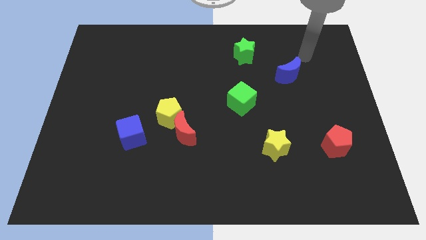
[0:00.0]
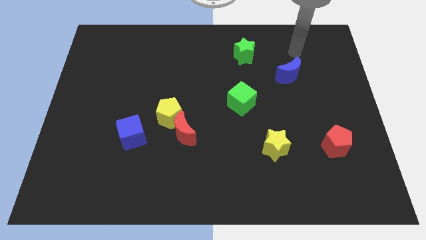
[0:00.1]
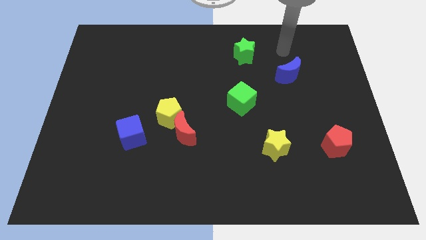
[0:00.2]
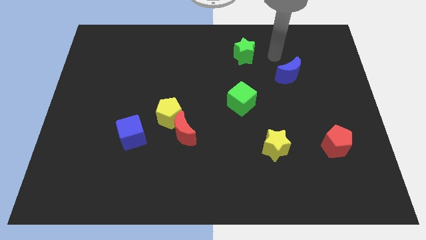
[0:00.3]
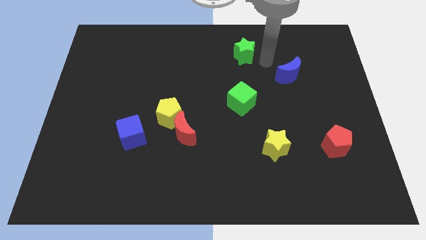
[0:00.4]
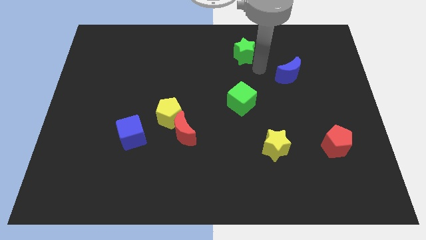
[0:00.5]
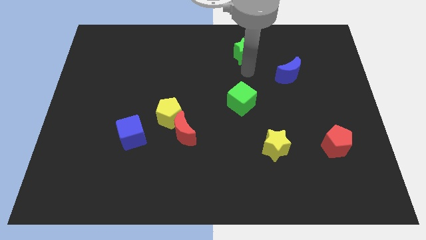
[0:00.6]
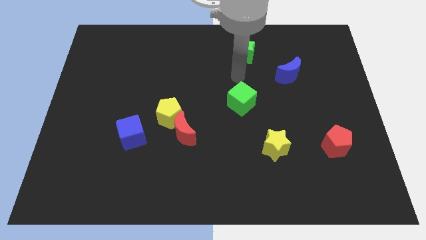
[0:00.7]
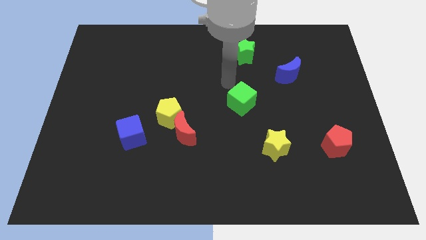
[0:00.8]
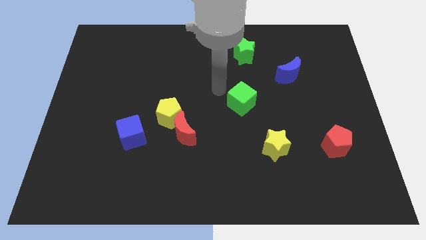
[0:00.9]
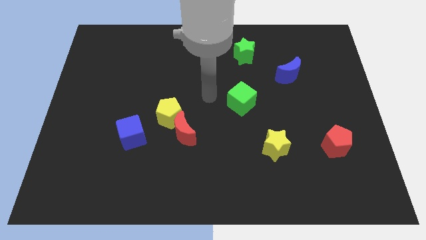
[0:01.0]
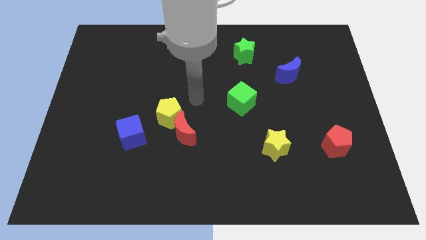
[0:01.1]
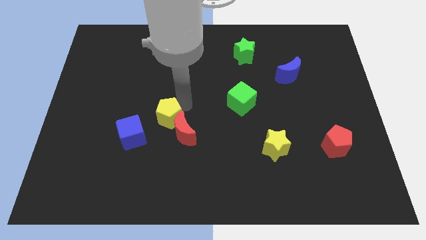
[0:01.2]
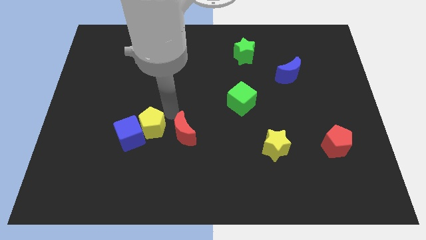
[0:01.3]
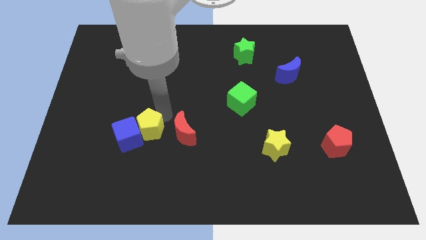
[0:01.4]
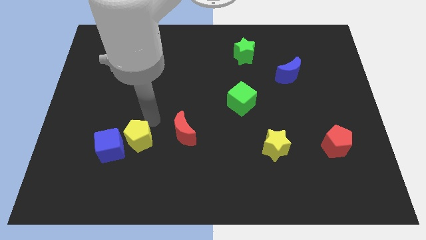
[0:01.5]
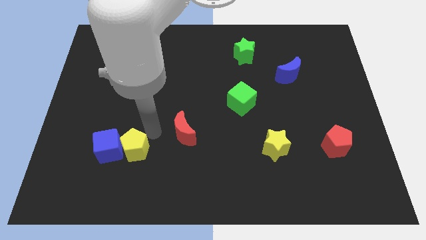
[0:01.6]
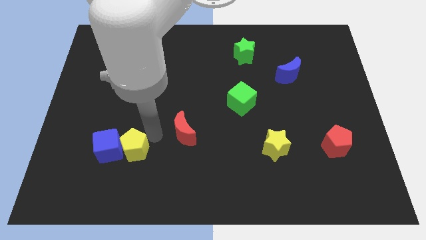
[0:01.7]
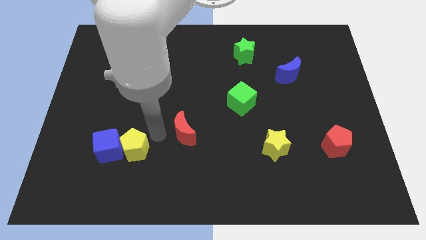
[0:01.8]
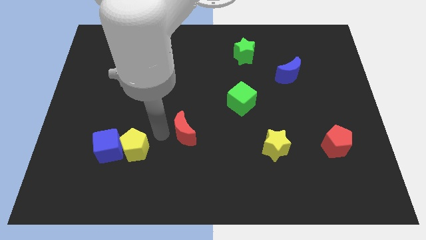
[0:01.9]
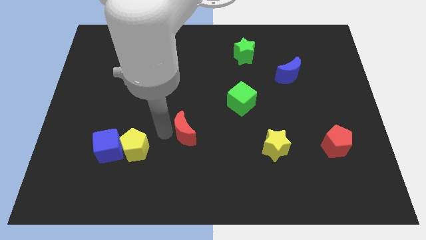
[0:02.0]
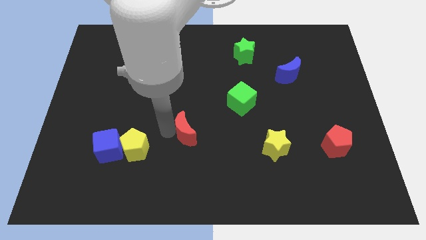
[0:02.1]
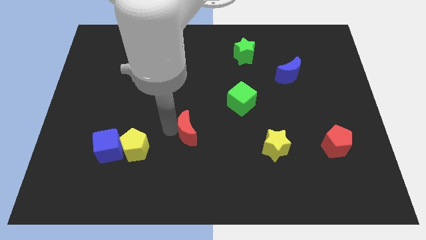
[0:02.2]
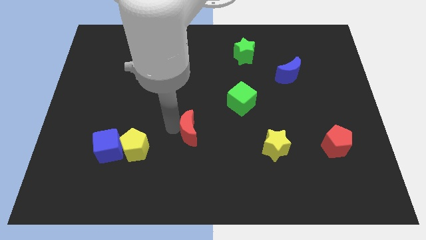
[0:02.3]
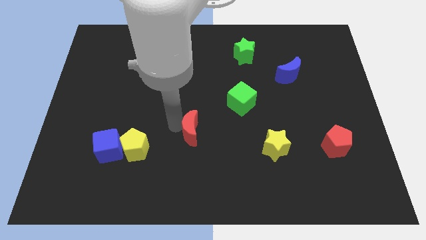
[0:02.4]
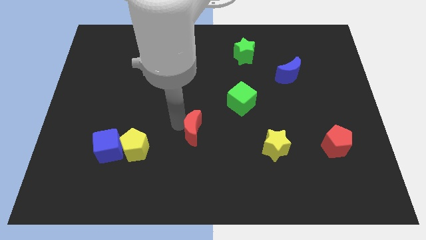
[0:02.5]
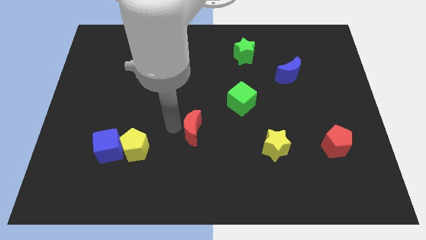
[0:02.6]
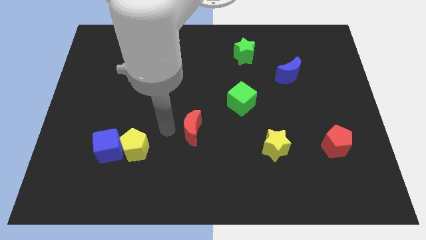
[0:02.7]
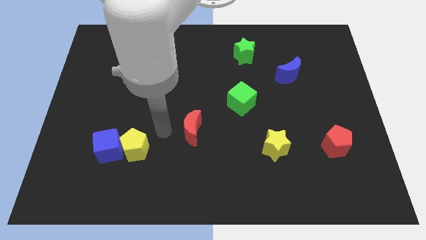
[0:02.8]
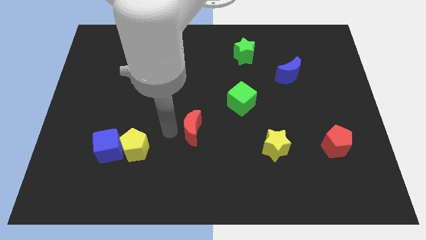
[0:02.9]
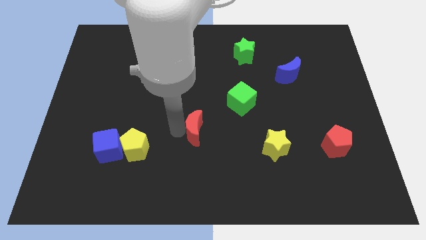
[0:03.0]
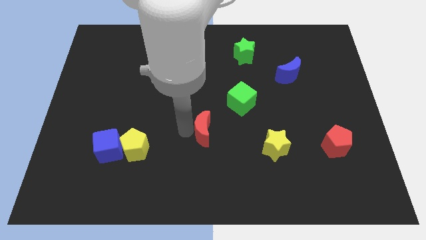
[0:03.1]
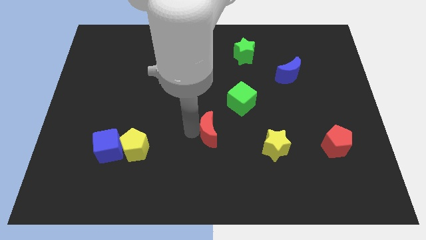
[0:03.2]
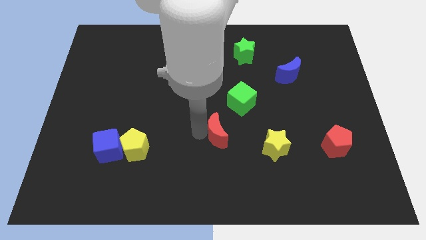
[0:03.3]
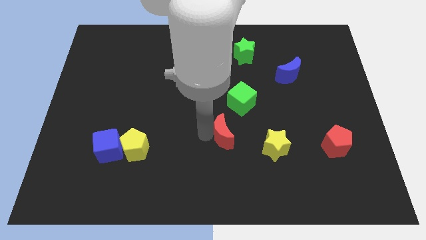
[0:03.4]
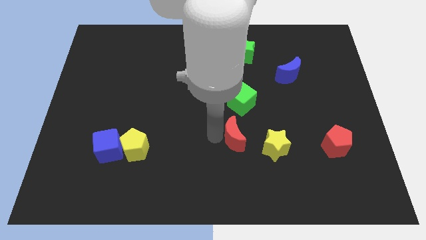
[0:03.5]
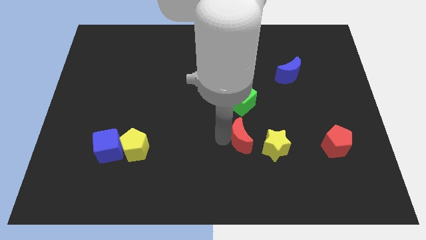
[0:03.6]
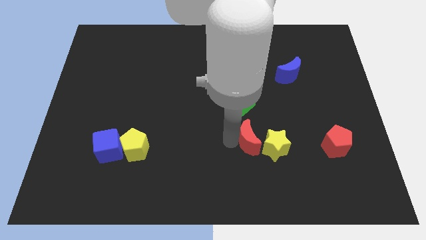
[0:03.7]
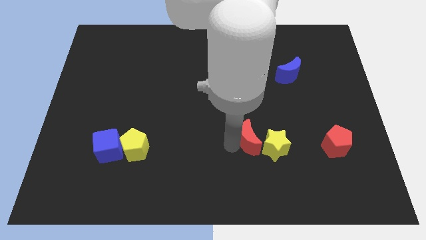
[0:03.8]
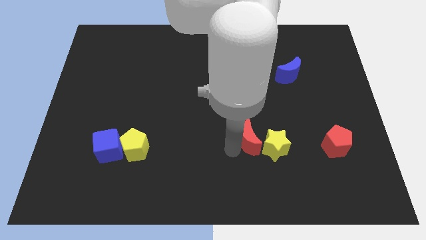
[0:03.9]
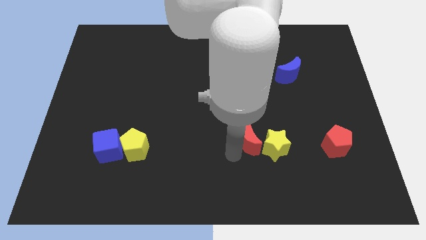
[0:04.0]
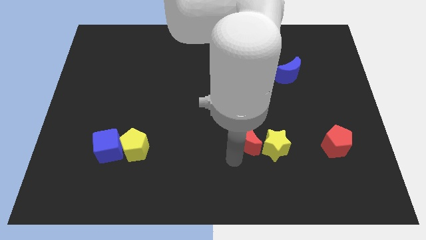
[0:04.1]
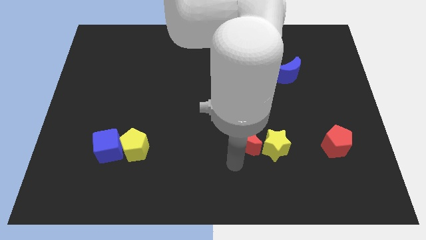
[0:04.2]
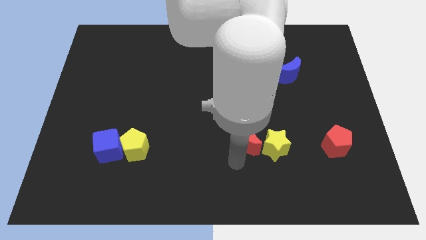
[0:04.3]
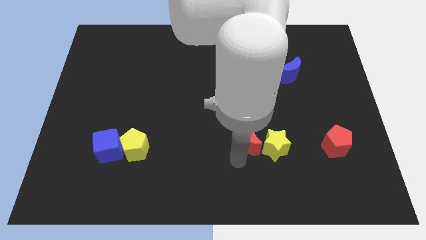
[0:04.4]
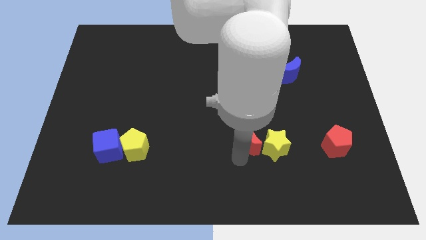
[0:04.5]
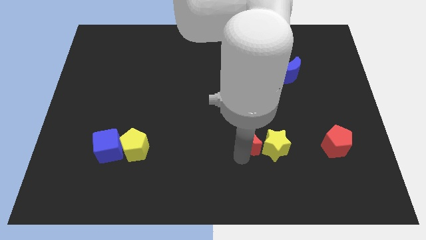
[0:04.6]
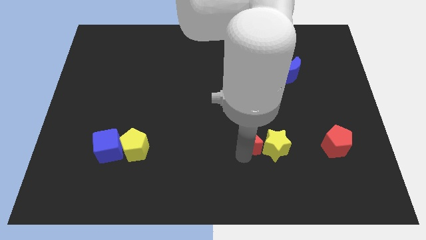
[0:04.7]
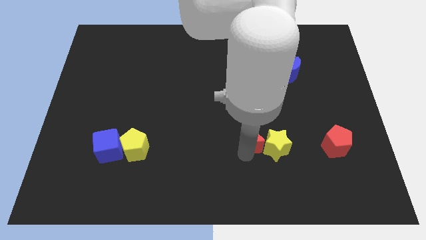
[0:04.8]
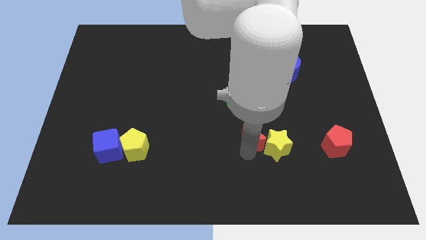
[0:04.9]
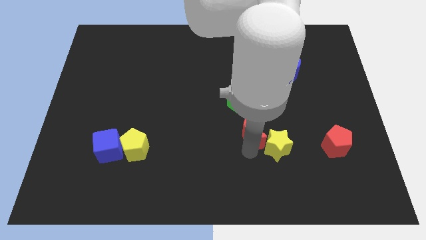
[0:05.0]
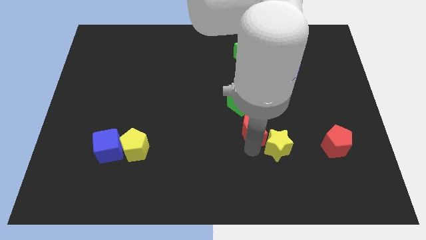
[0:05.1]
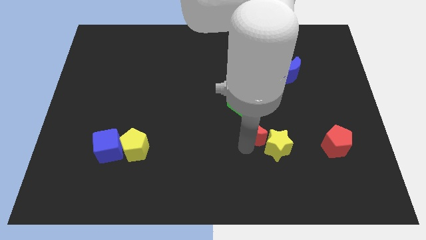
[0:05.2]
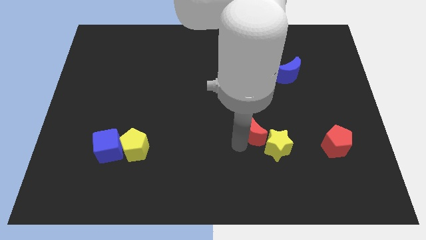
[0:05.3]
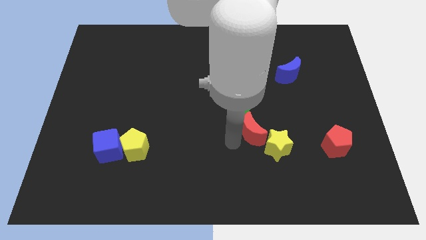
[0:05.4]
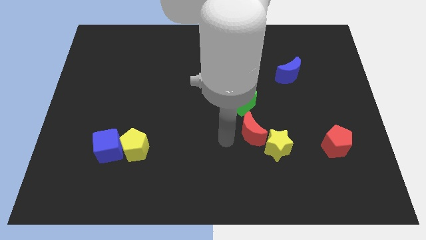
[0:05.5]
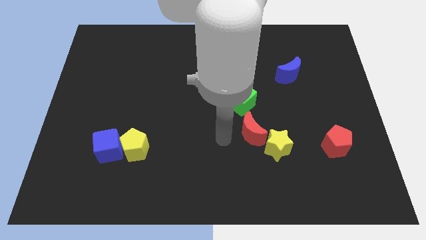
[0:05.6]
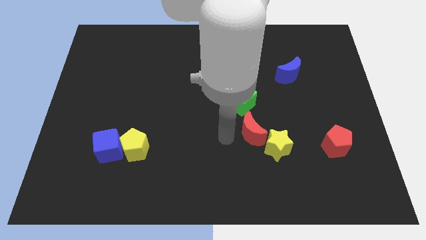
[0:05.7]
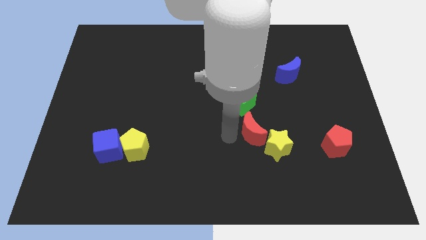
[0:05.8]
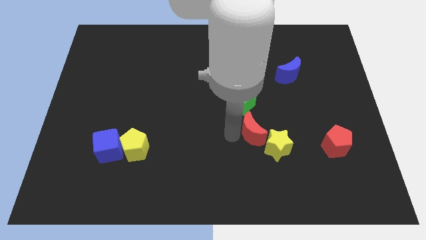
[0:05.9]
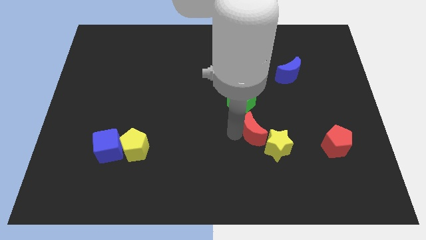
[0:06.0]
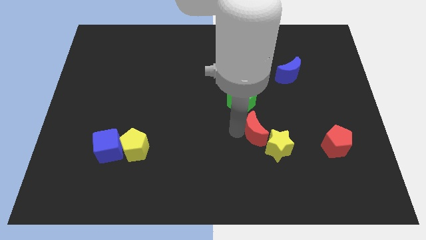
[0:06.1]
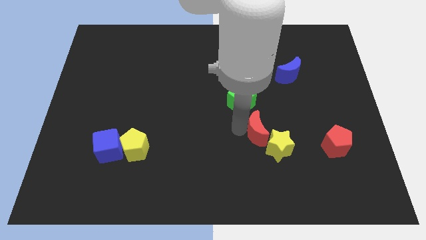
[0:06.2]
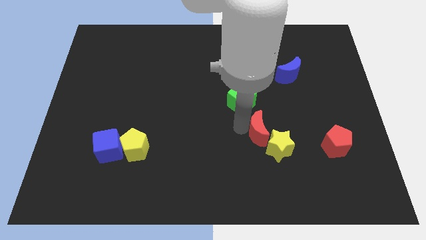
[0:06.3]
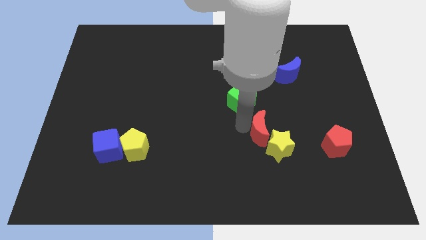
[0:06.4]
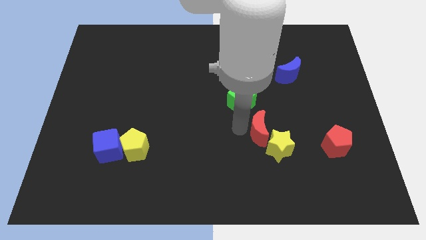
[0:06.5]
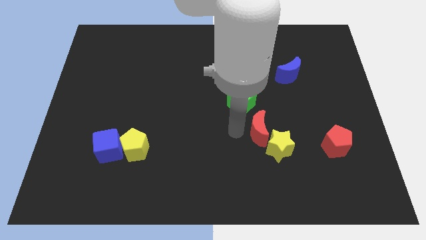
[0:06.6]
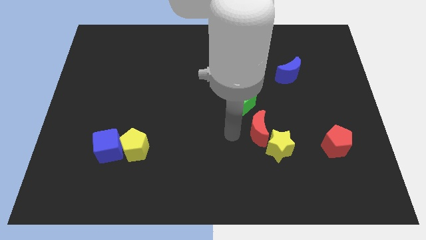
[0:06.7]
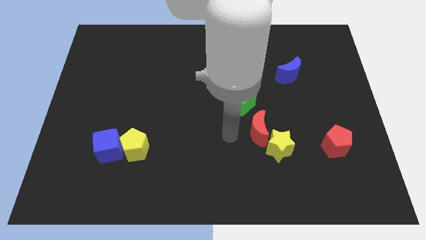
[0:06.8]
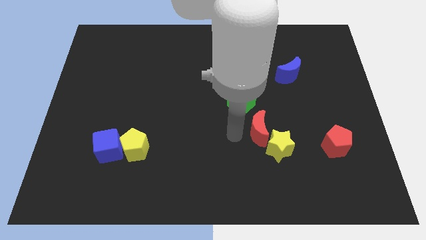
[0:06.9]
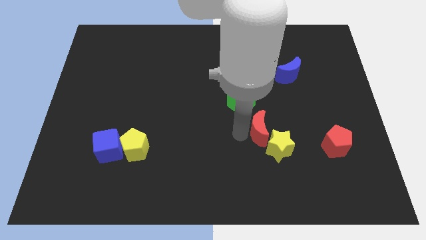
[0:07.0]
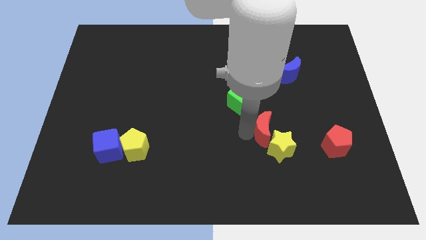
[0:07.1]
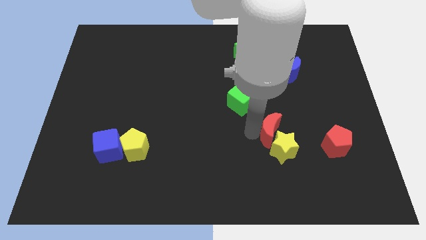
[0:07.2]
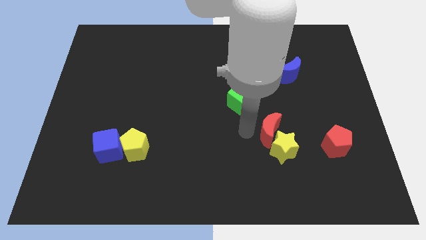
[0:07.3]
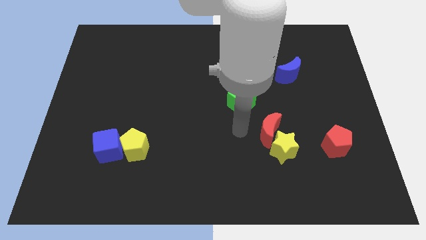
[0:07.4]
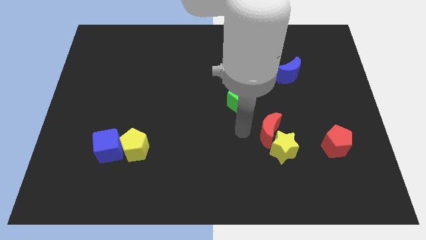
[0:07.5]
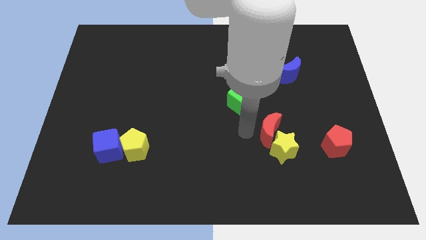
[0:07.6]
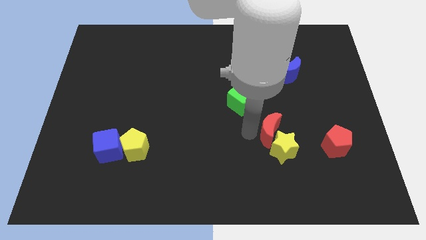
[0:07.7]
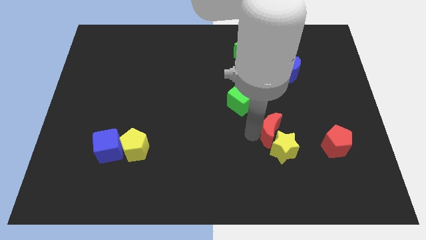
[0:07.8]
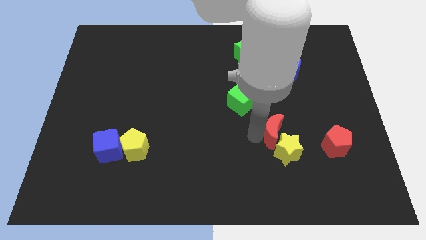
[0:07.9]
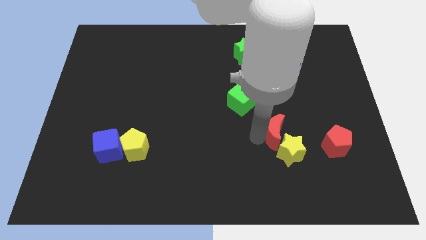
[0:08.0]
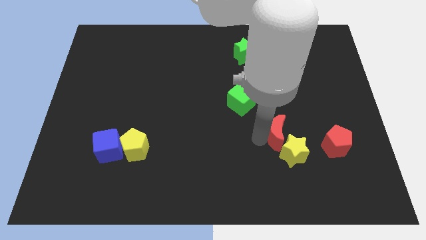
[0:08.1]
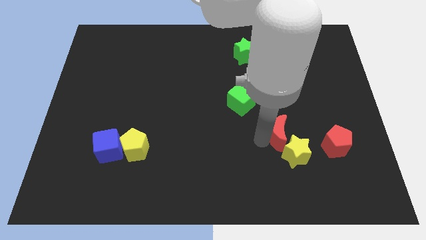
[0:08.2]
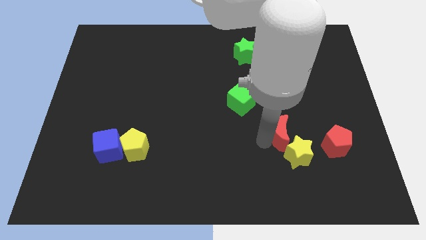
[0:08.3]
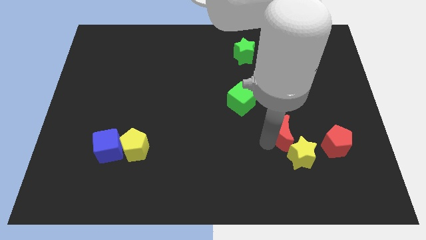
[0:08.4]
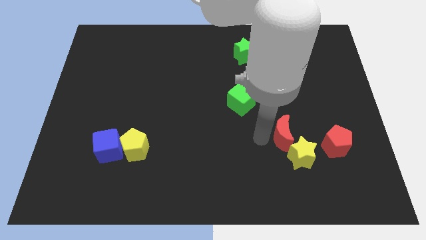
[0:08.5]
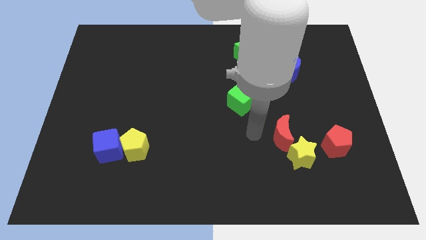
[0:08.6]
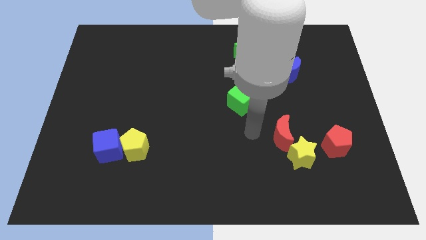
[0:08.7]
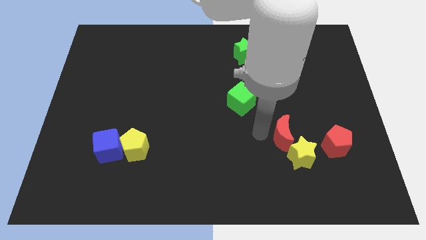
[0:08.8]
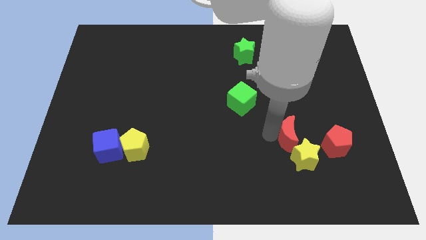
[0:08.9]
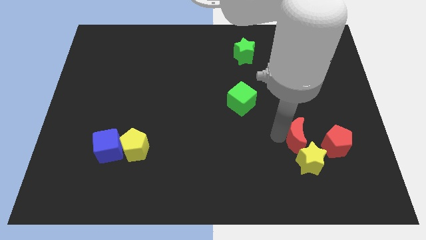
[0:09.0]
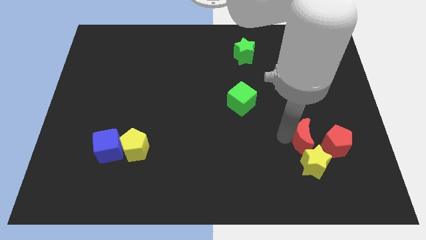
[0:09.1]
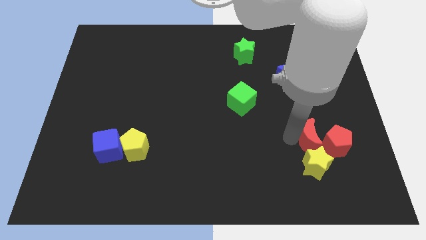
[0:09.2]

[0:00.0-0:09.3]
move the red moon close to the red pentagon
